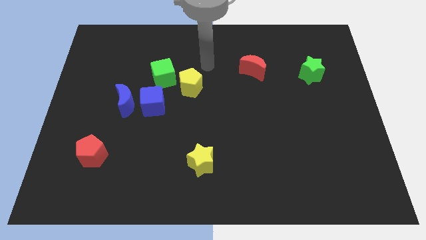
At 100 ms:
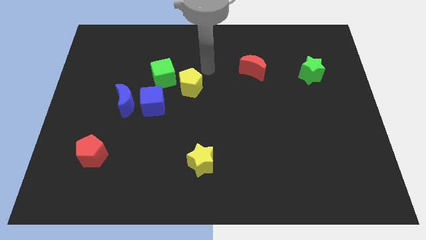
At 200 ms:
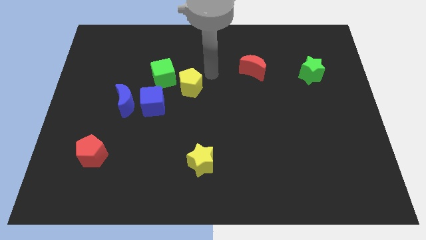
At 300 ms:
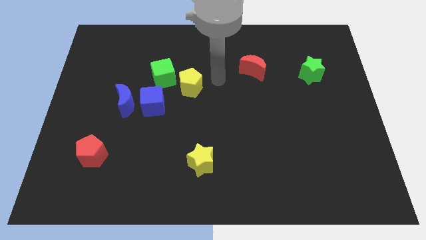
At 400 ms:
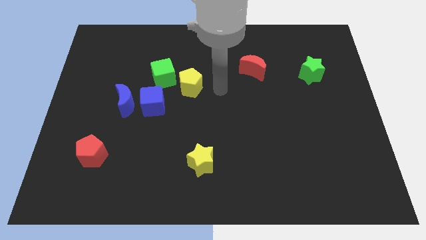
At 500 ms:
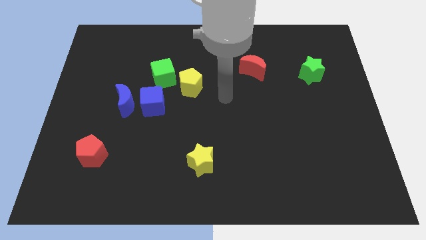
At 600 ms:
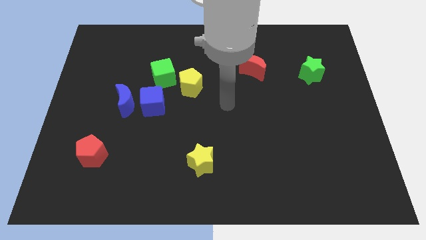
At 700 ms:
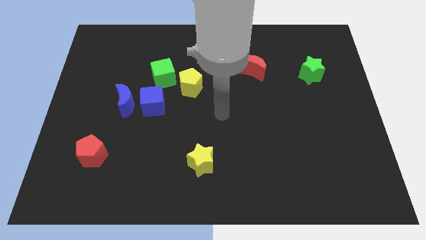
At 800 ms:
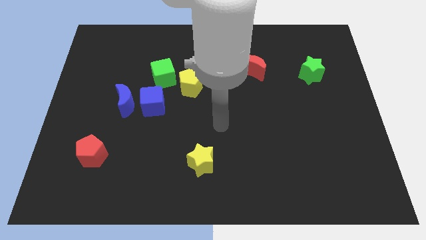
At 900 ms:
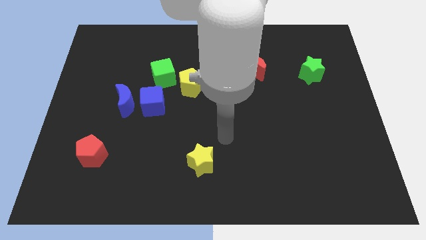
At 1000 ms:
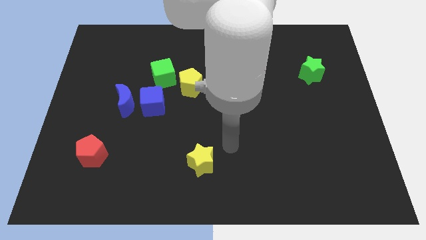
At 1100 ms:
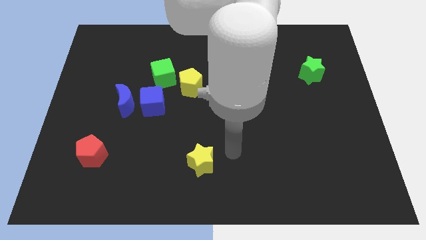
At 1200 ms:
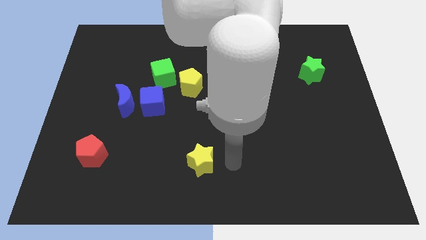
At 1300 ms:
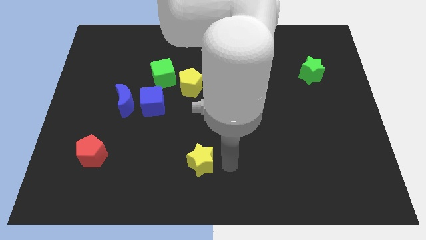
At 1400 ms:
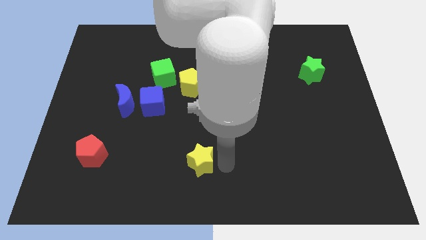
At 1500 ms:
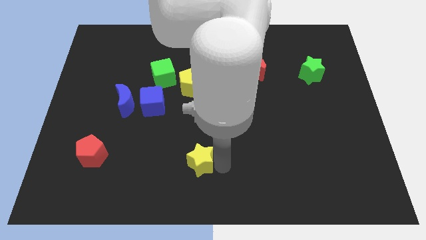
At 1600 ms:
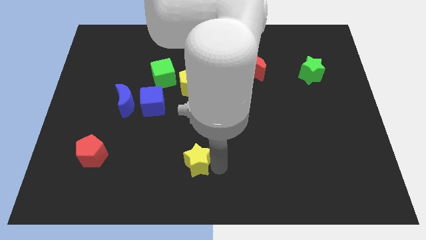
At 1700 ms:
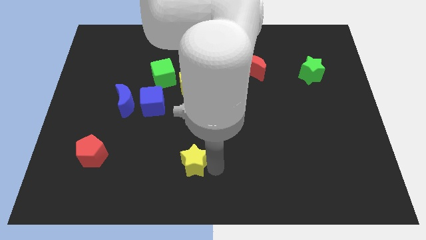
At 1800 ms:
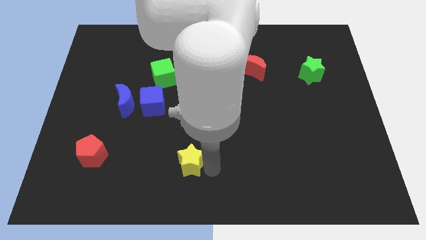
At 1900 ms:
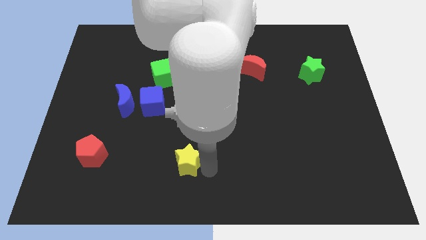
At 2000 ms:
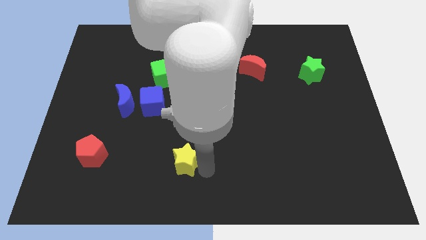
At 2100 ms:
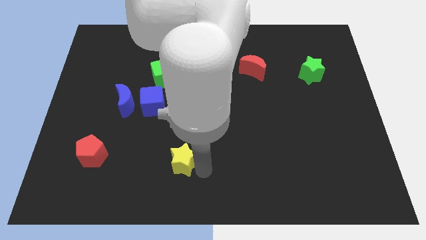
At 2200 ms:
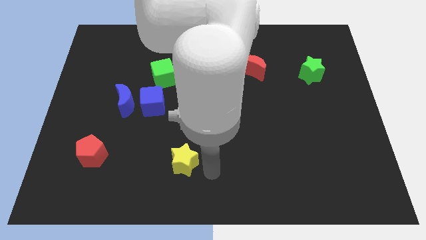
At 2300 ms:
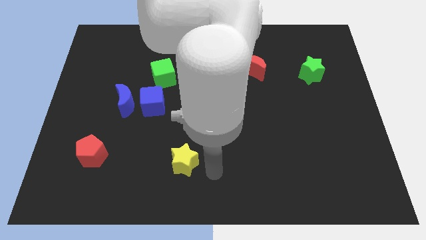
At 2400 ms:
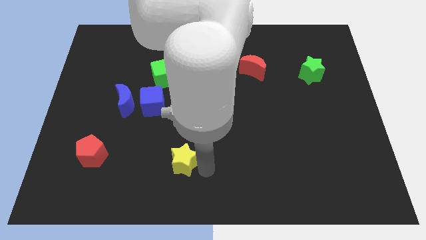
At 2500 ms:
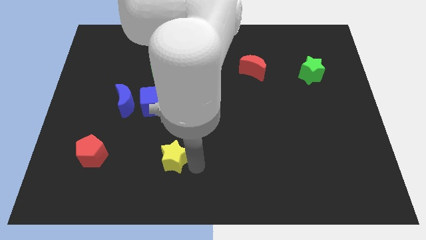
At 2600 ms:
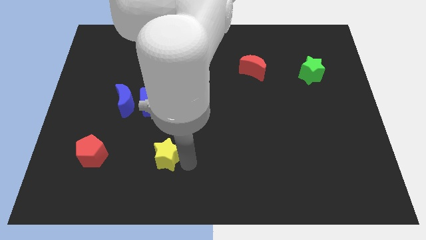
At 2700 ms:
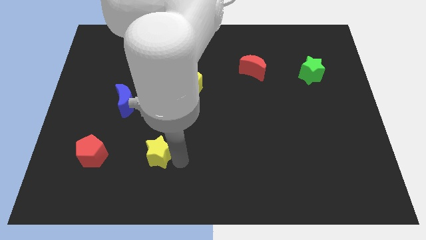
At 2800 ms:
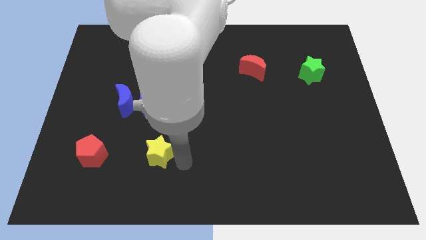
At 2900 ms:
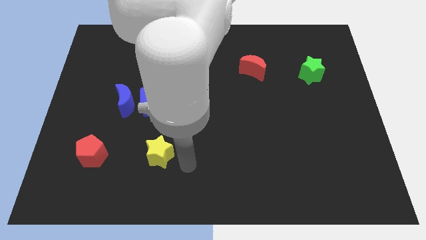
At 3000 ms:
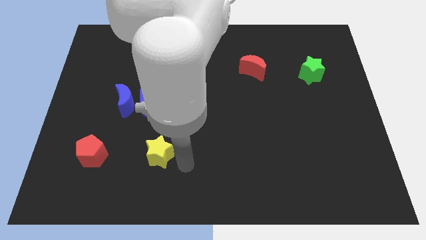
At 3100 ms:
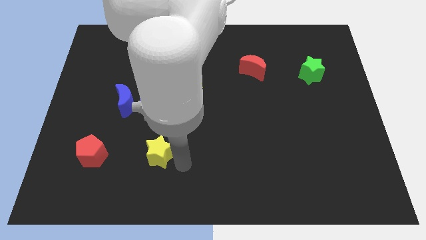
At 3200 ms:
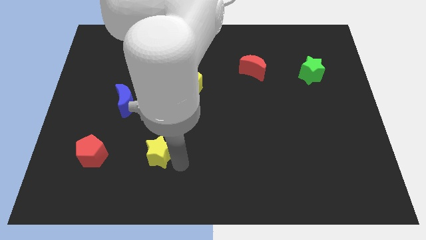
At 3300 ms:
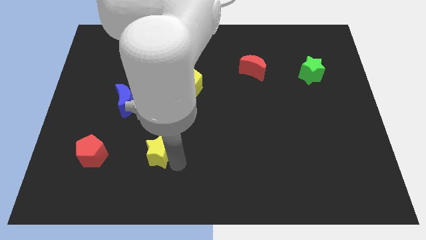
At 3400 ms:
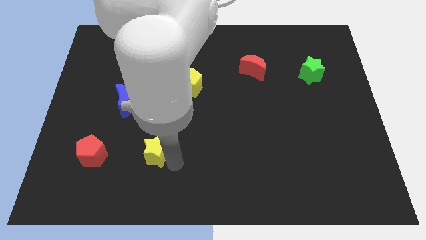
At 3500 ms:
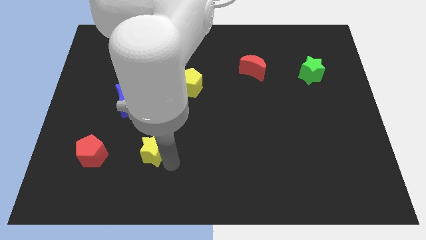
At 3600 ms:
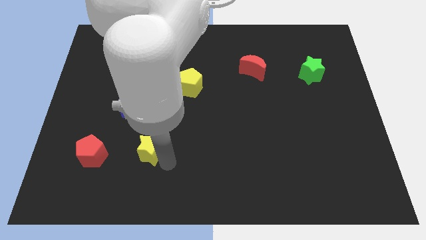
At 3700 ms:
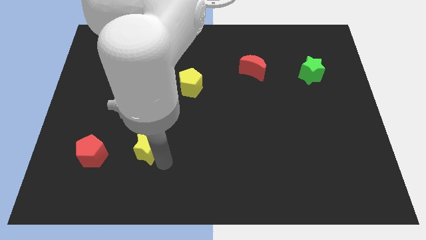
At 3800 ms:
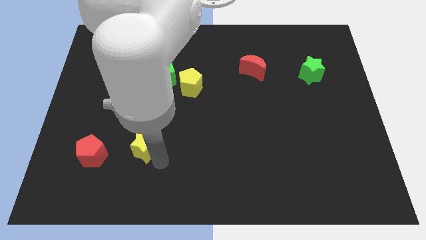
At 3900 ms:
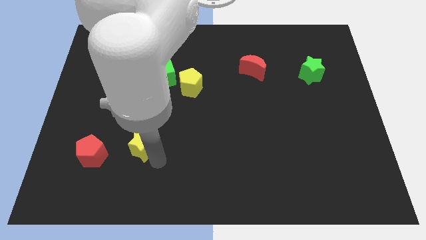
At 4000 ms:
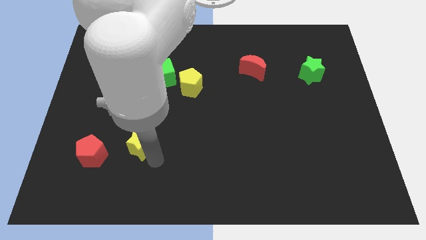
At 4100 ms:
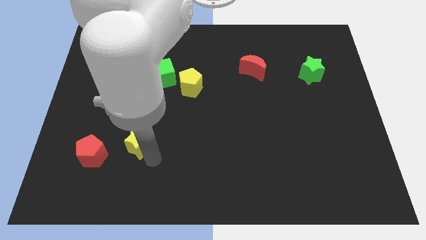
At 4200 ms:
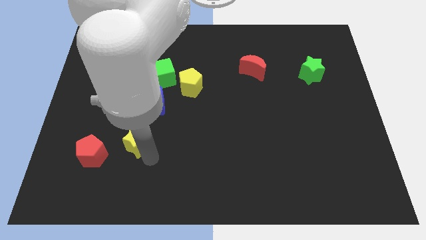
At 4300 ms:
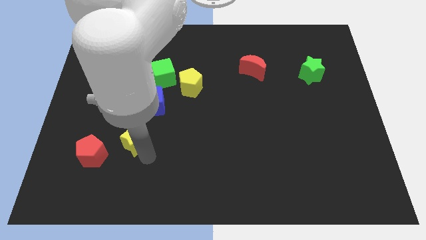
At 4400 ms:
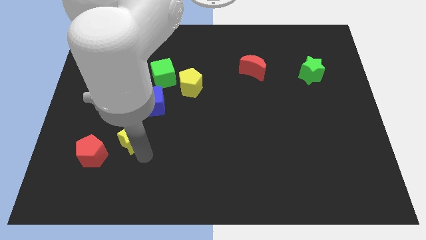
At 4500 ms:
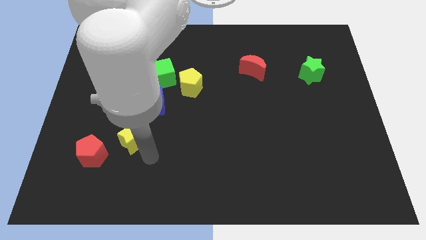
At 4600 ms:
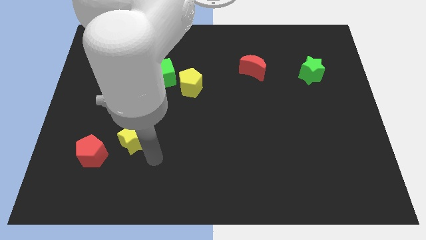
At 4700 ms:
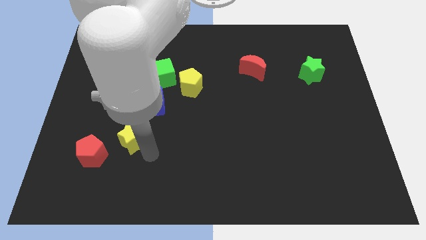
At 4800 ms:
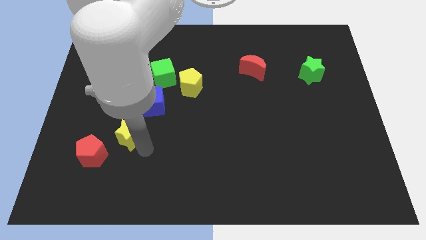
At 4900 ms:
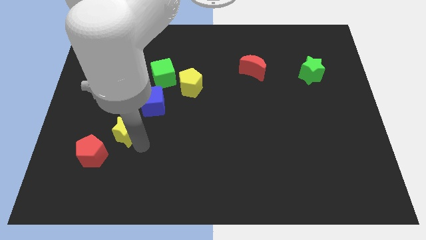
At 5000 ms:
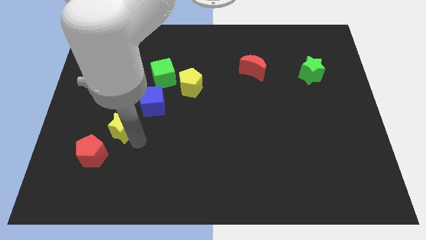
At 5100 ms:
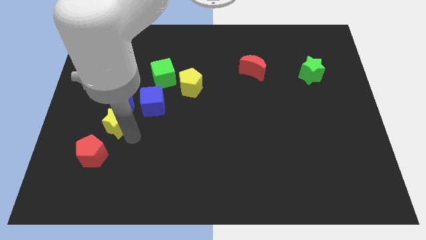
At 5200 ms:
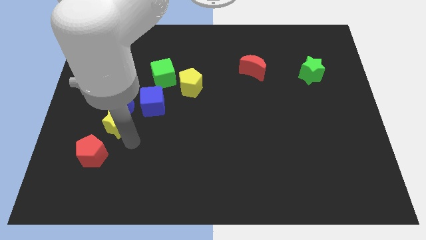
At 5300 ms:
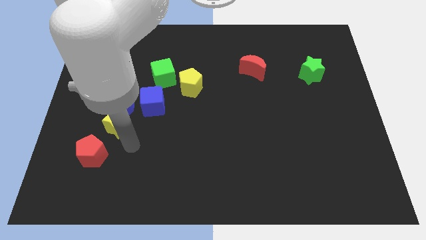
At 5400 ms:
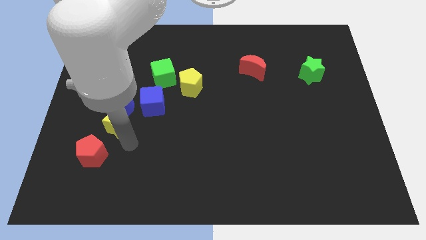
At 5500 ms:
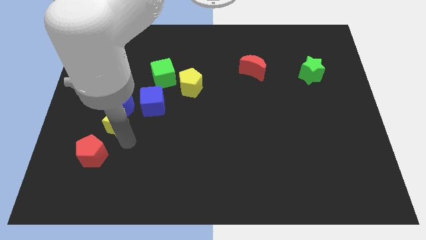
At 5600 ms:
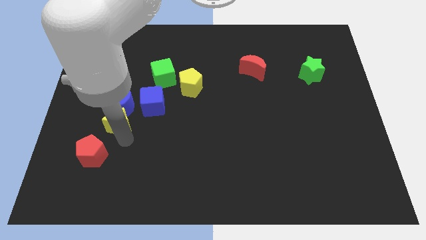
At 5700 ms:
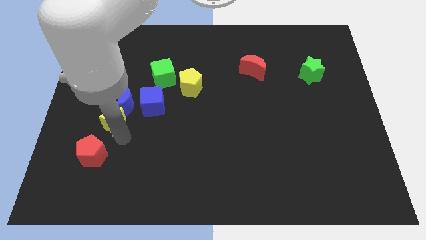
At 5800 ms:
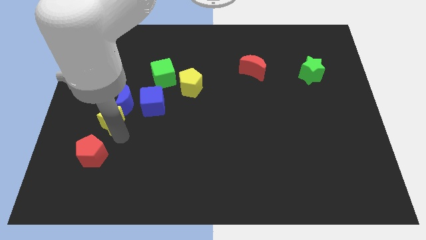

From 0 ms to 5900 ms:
move the yellow star up and left

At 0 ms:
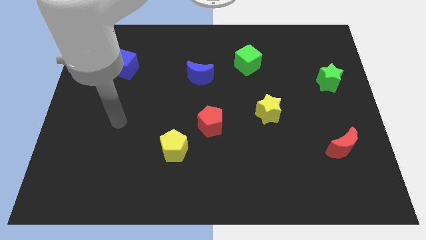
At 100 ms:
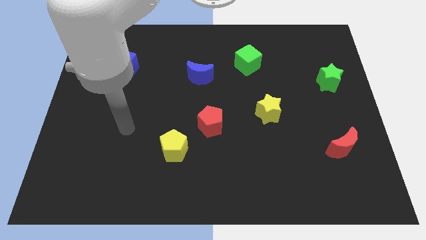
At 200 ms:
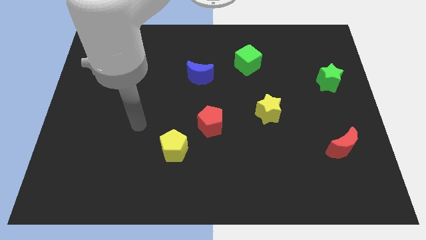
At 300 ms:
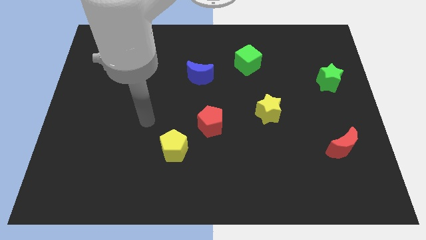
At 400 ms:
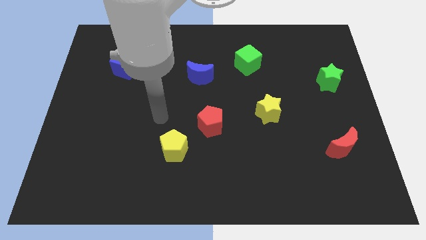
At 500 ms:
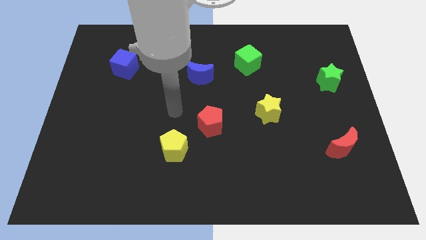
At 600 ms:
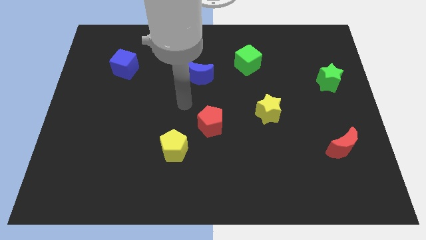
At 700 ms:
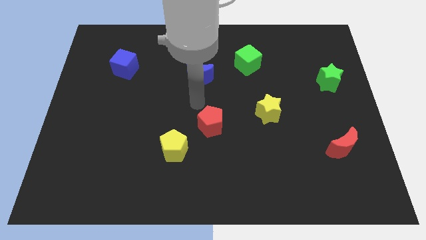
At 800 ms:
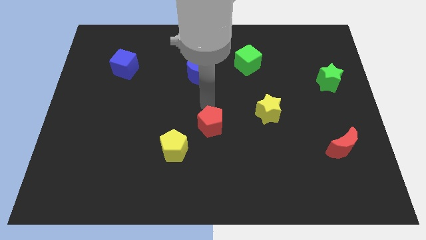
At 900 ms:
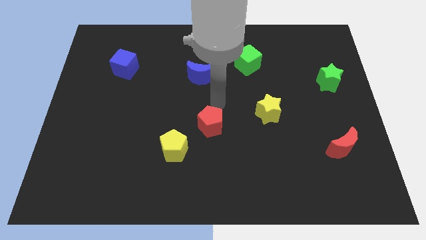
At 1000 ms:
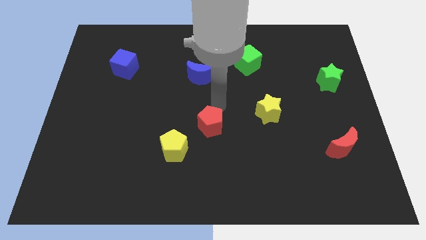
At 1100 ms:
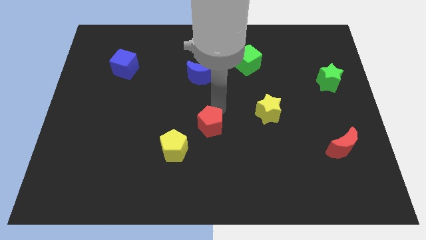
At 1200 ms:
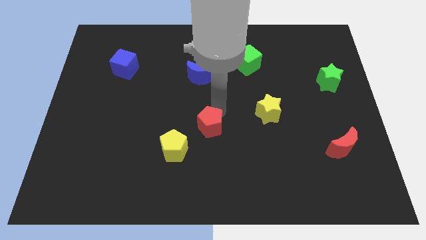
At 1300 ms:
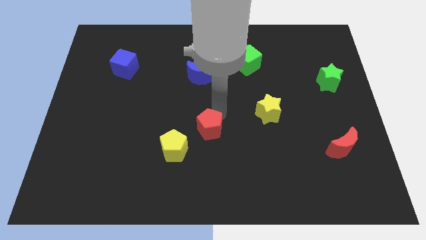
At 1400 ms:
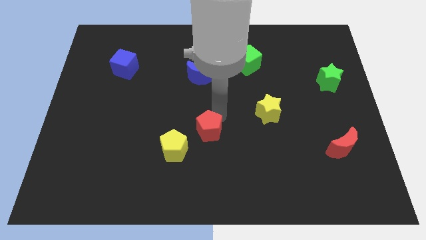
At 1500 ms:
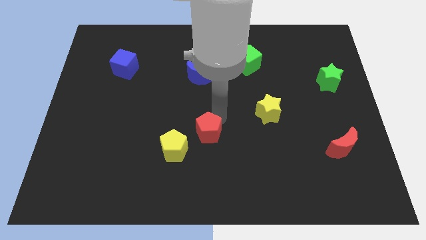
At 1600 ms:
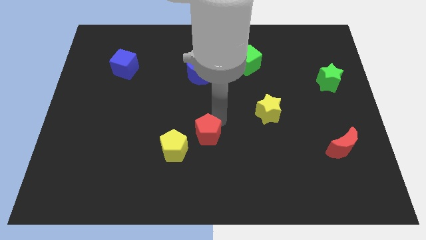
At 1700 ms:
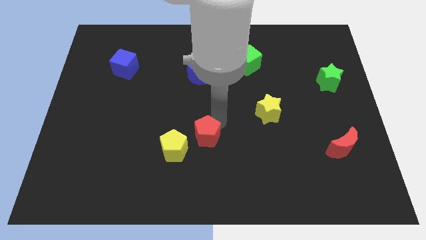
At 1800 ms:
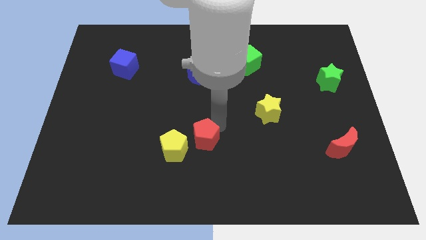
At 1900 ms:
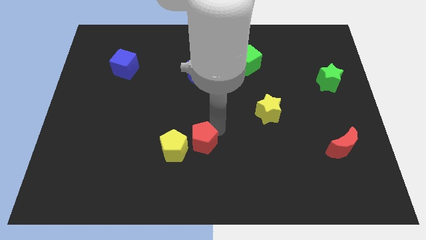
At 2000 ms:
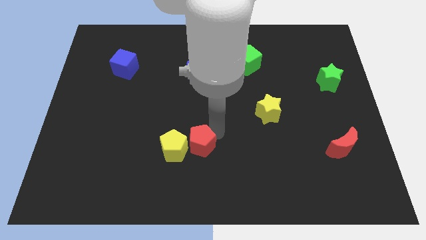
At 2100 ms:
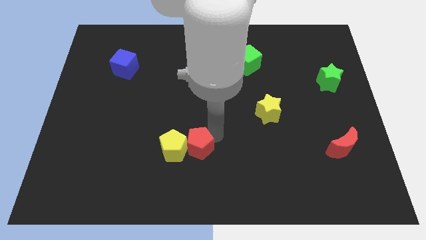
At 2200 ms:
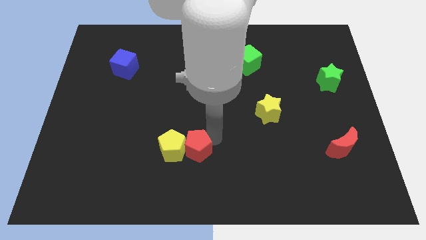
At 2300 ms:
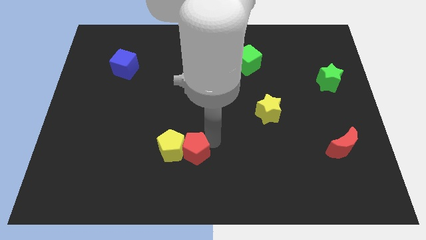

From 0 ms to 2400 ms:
push the red pentagon down and to the left diagonally a little
